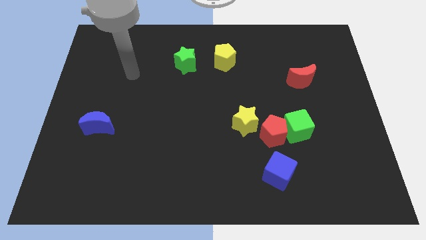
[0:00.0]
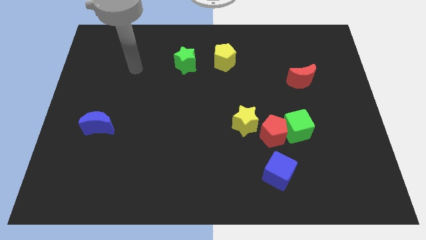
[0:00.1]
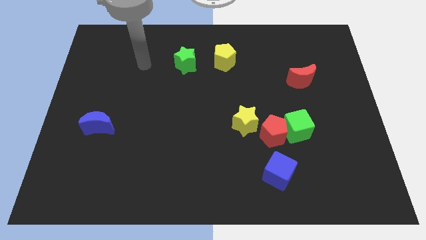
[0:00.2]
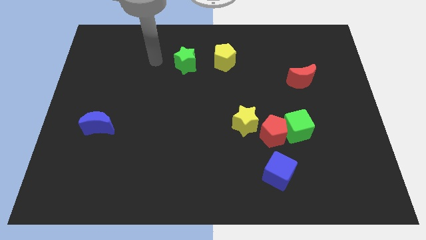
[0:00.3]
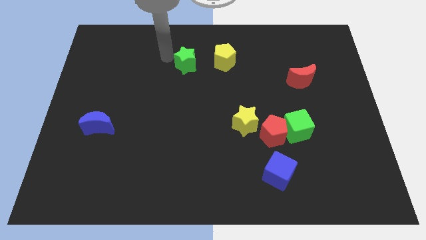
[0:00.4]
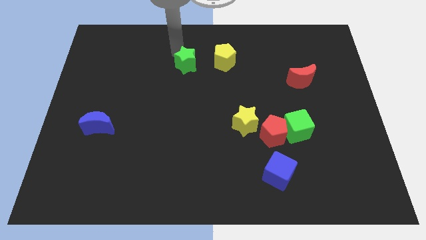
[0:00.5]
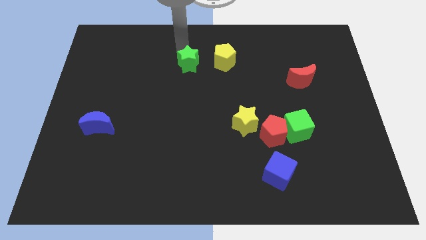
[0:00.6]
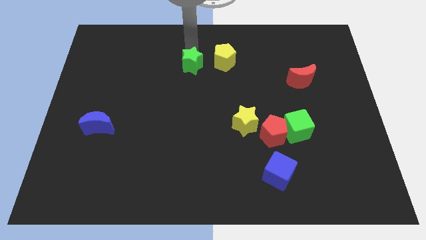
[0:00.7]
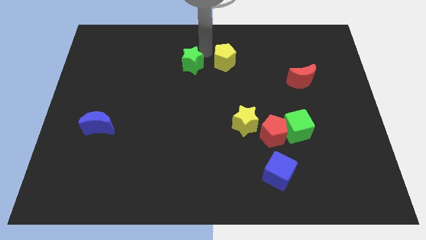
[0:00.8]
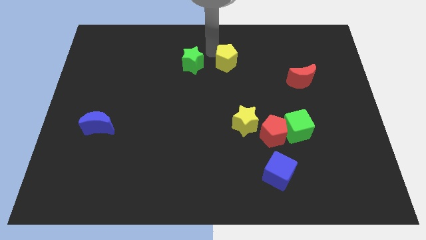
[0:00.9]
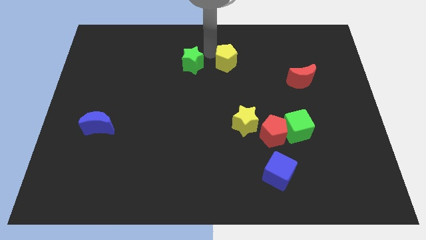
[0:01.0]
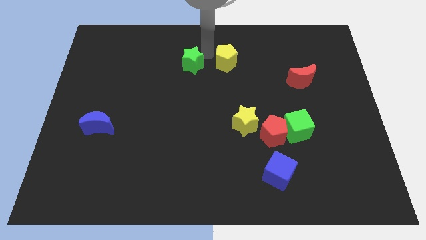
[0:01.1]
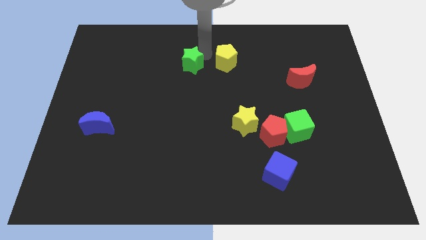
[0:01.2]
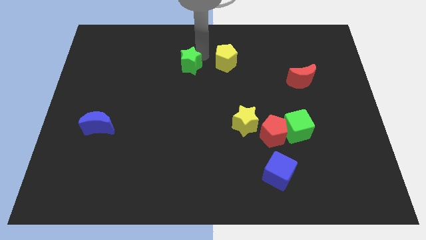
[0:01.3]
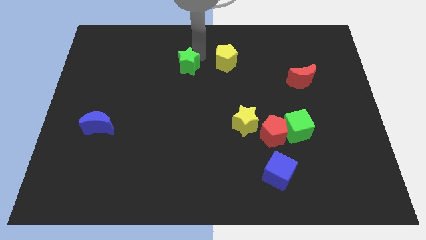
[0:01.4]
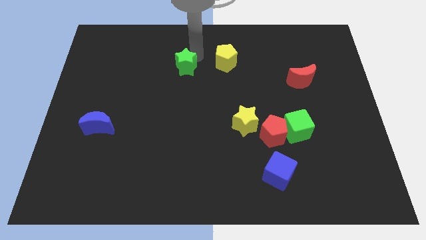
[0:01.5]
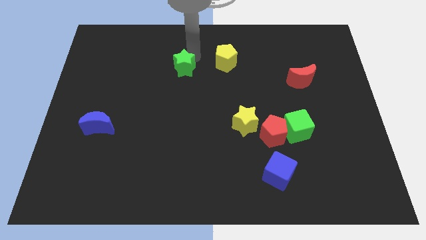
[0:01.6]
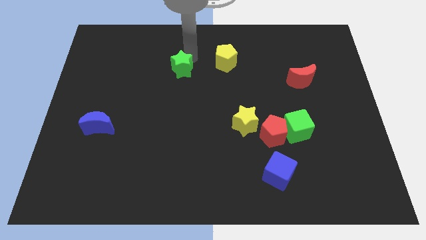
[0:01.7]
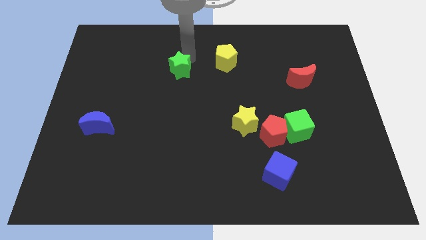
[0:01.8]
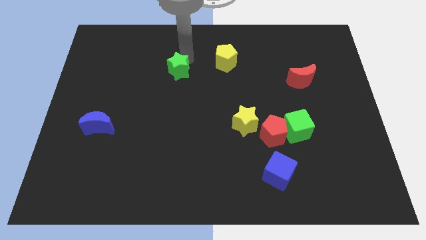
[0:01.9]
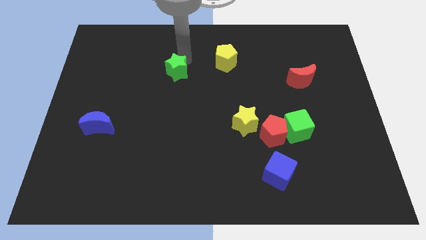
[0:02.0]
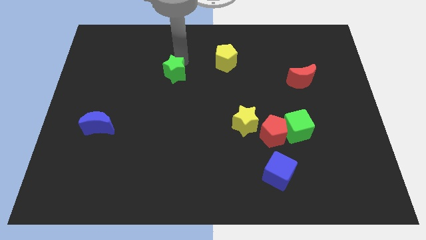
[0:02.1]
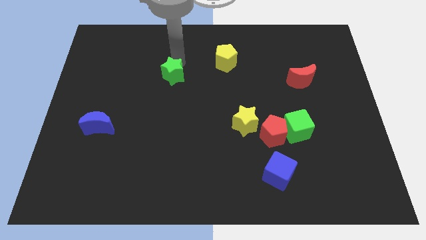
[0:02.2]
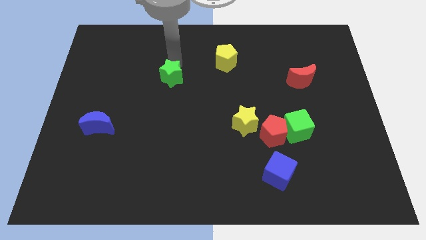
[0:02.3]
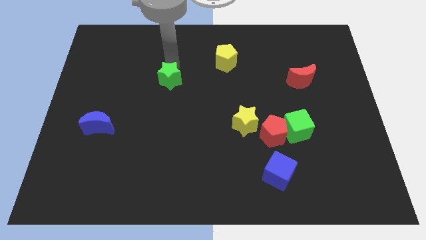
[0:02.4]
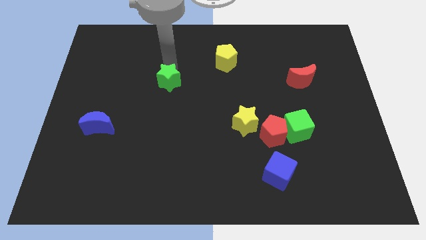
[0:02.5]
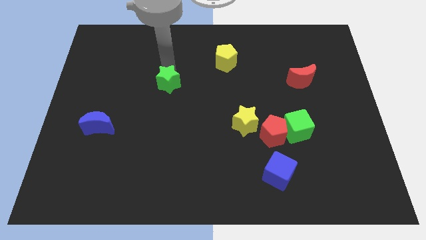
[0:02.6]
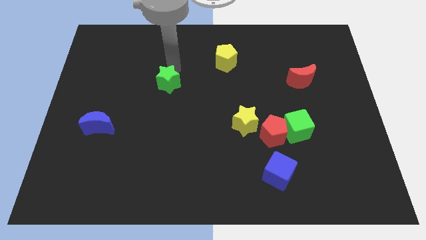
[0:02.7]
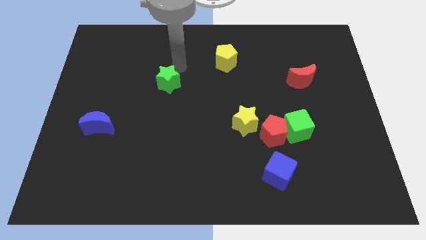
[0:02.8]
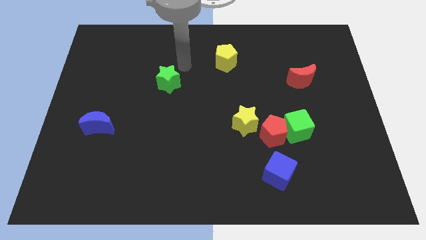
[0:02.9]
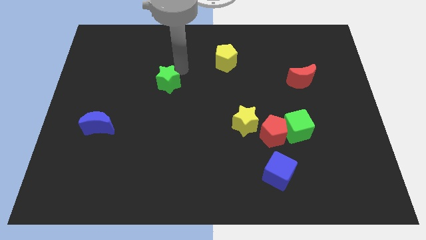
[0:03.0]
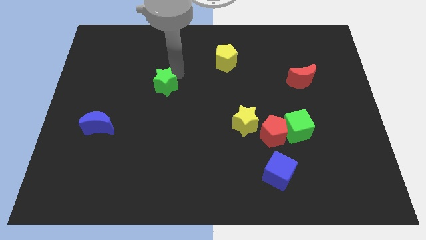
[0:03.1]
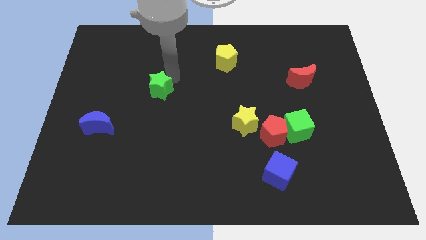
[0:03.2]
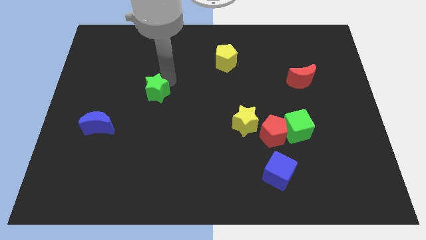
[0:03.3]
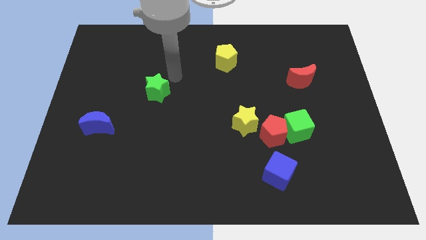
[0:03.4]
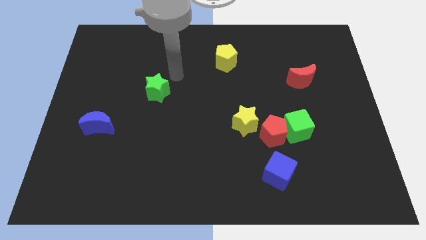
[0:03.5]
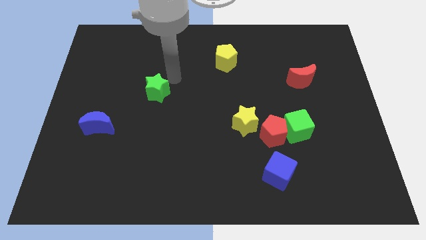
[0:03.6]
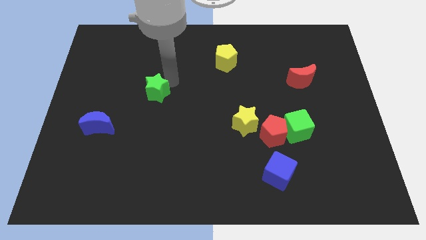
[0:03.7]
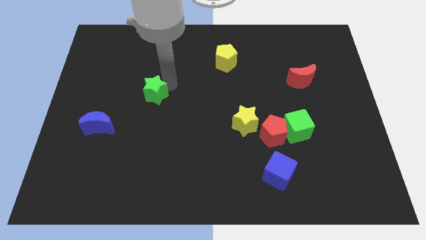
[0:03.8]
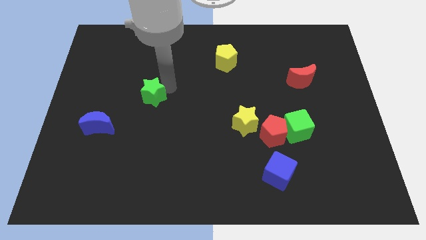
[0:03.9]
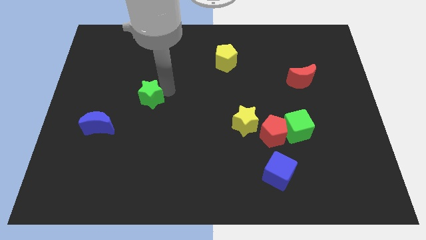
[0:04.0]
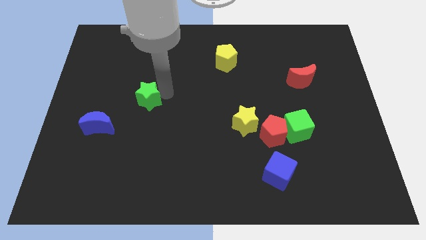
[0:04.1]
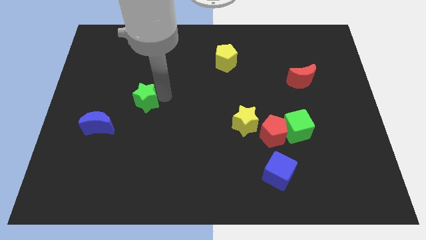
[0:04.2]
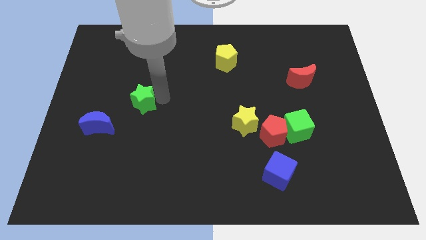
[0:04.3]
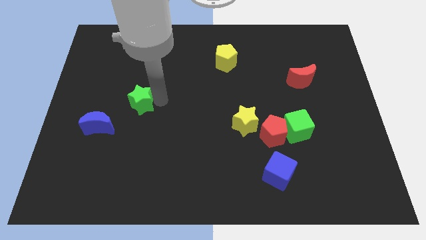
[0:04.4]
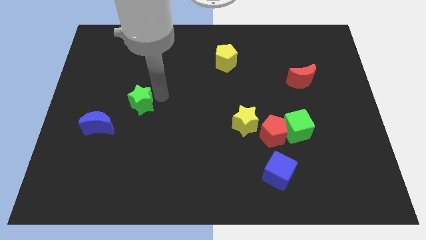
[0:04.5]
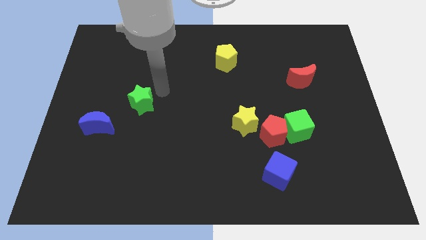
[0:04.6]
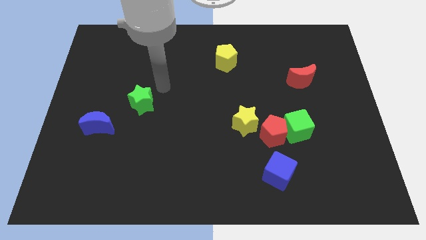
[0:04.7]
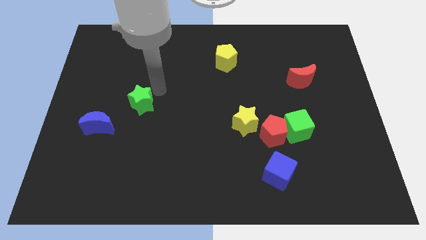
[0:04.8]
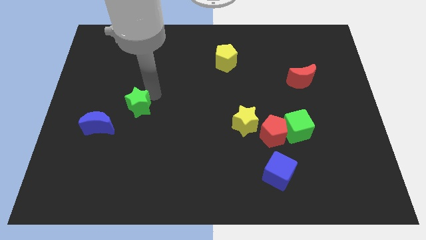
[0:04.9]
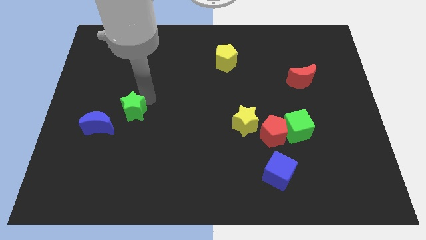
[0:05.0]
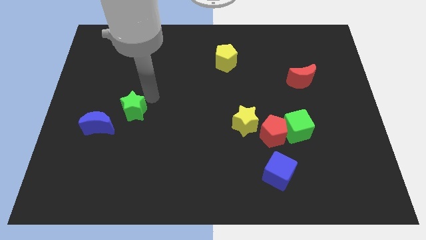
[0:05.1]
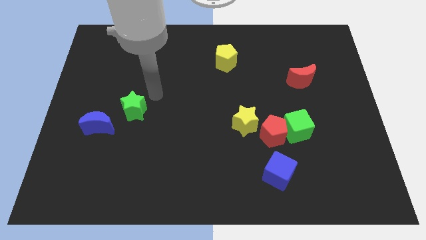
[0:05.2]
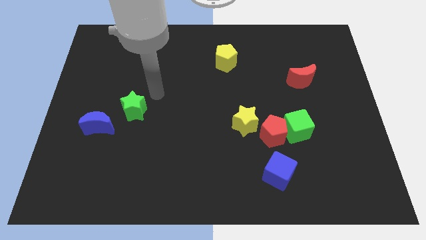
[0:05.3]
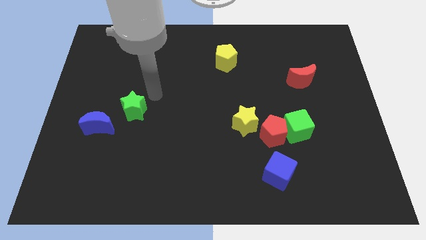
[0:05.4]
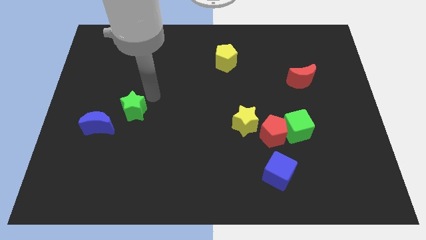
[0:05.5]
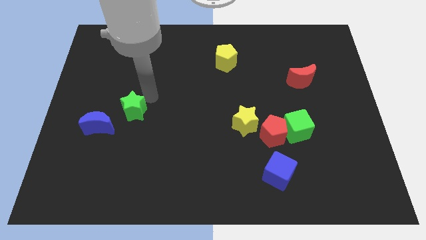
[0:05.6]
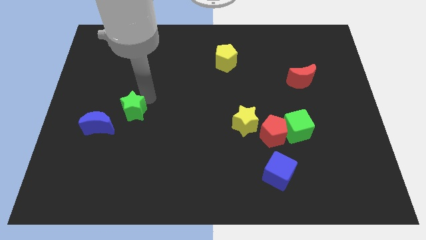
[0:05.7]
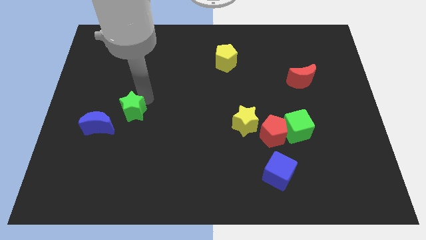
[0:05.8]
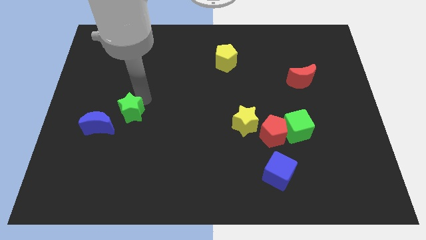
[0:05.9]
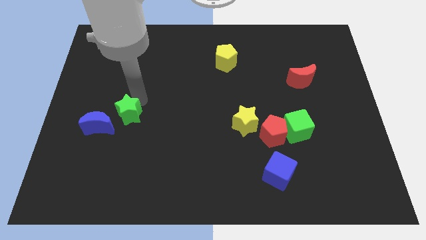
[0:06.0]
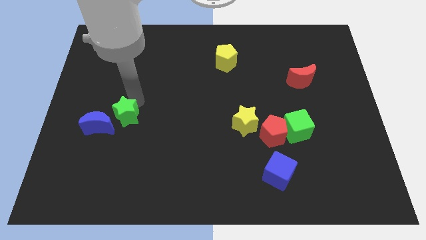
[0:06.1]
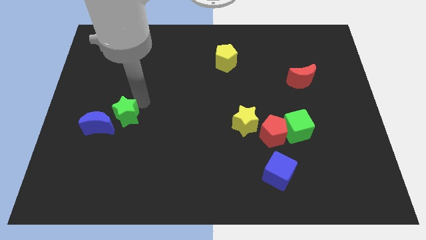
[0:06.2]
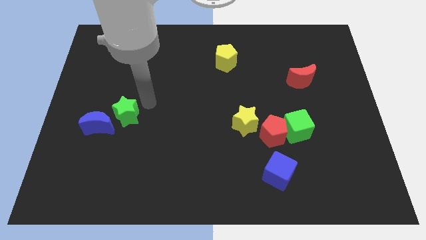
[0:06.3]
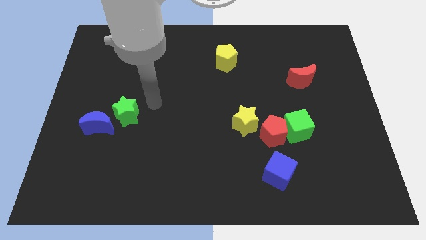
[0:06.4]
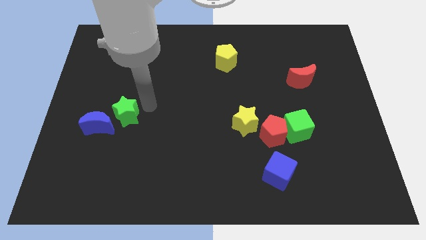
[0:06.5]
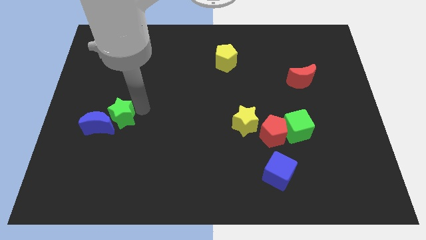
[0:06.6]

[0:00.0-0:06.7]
put the green star towards the blue moon
